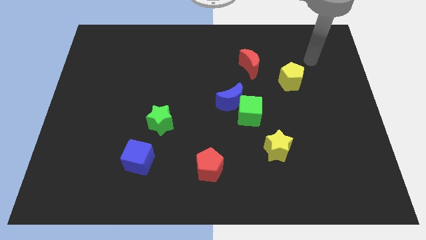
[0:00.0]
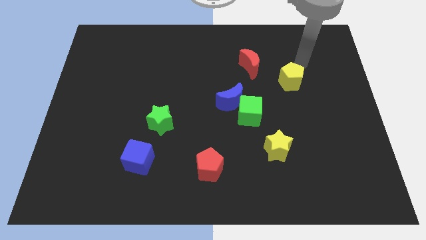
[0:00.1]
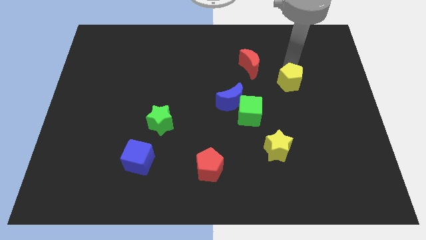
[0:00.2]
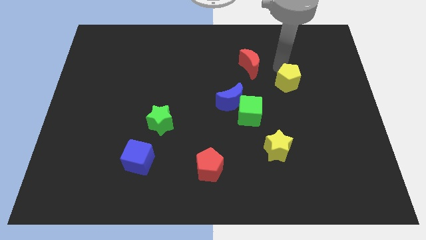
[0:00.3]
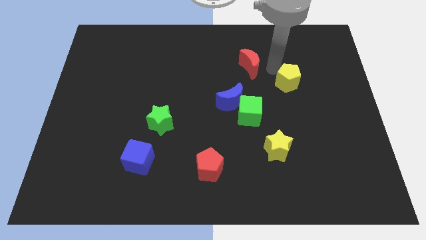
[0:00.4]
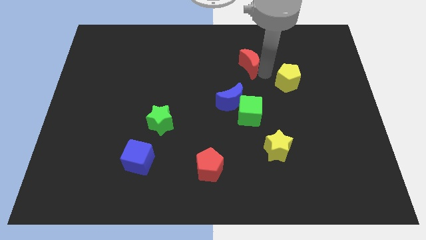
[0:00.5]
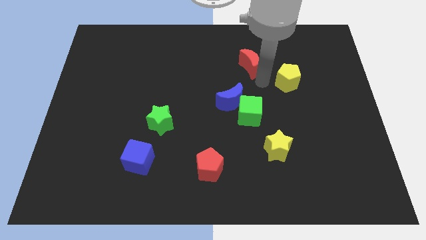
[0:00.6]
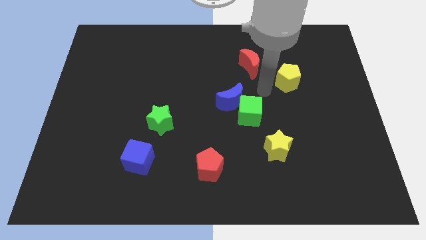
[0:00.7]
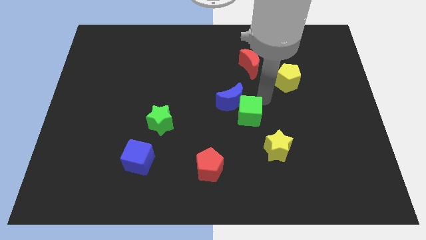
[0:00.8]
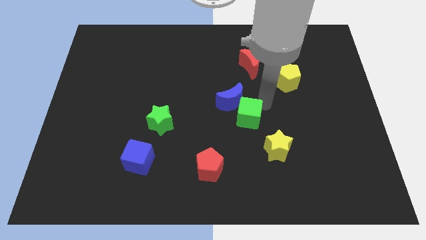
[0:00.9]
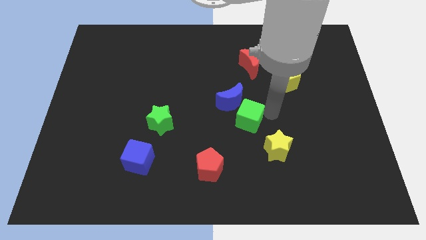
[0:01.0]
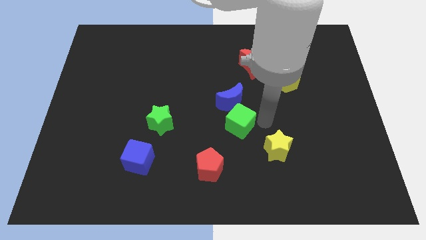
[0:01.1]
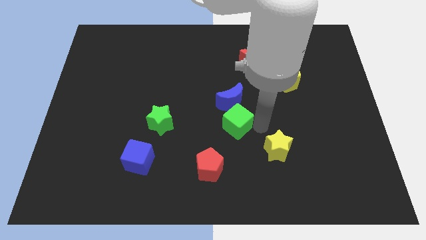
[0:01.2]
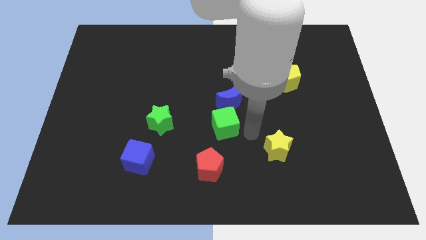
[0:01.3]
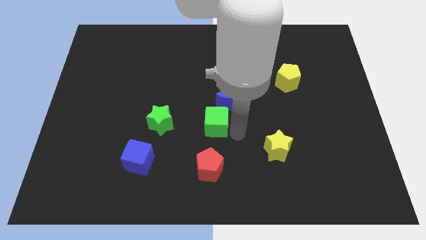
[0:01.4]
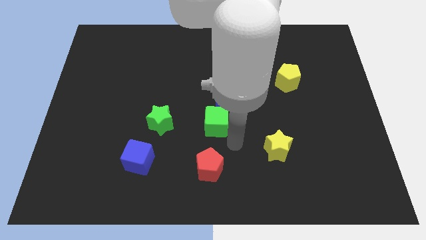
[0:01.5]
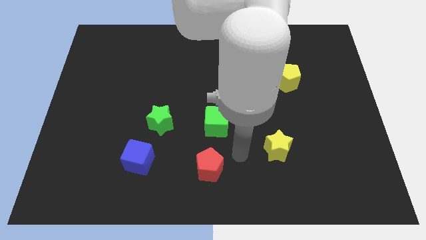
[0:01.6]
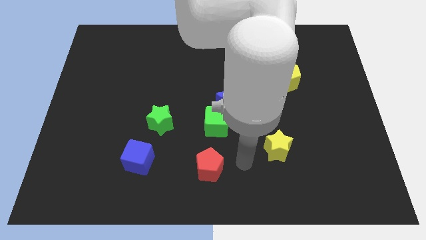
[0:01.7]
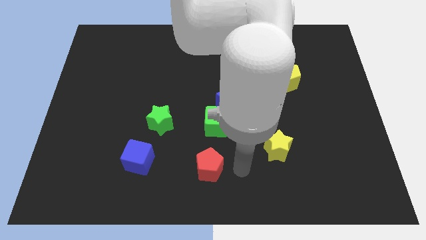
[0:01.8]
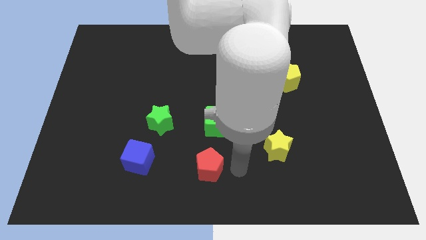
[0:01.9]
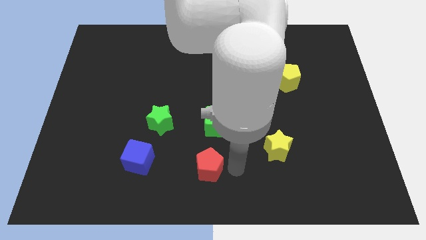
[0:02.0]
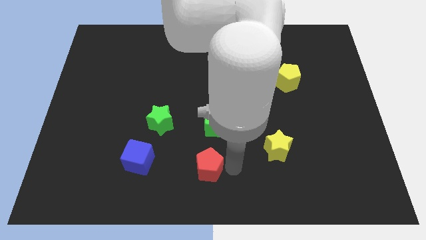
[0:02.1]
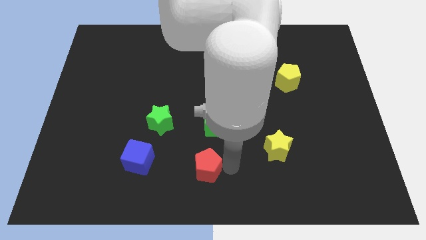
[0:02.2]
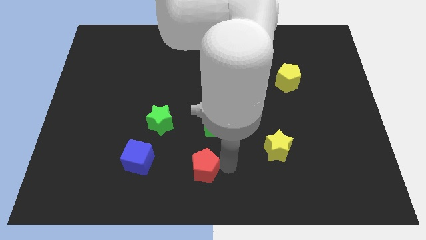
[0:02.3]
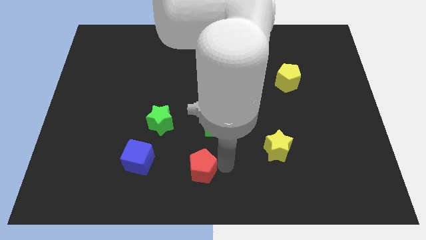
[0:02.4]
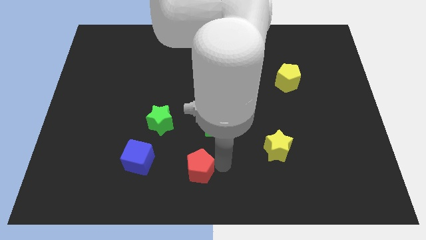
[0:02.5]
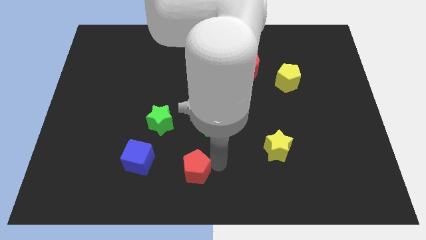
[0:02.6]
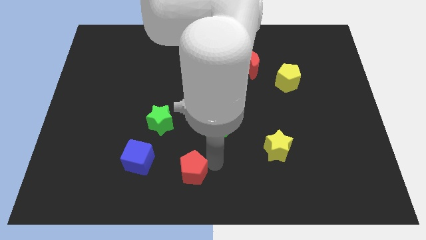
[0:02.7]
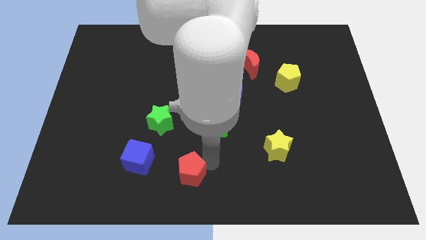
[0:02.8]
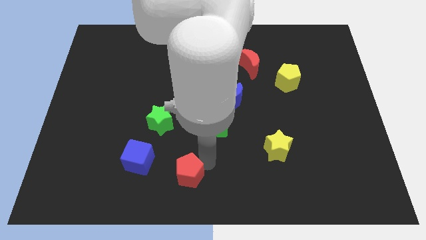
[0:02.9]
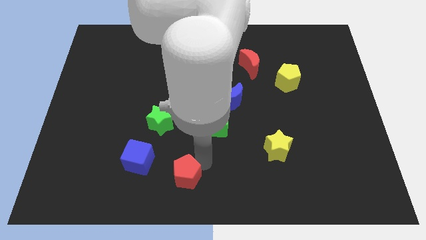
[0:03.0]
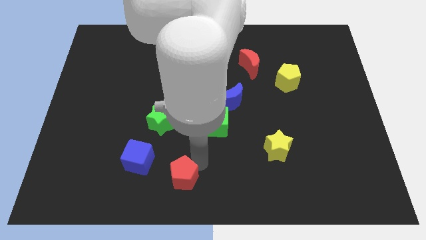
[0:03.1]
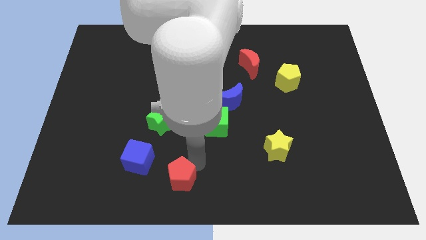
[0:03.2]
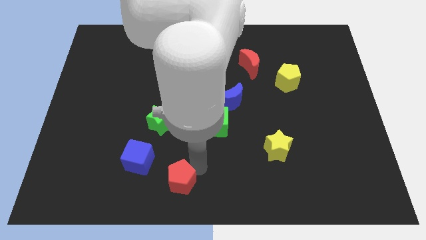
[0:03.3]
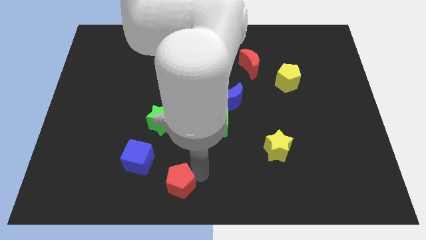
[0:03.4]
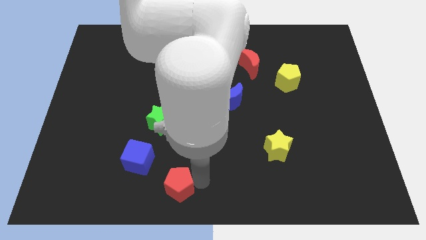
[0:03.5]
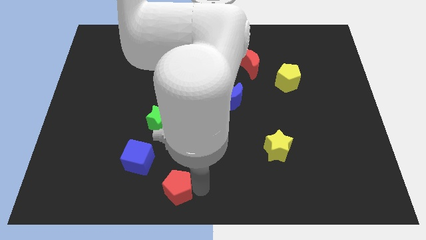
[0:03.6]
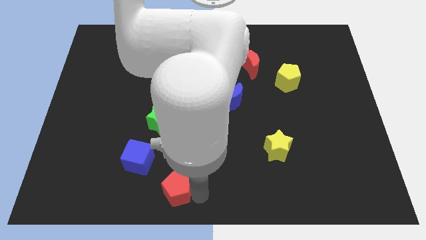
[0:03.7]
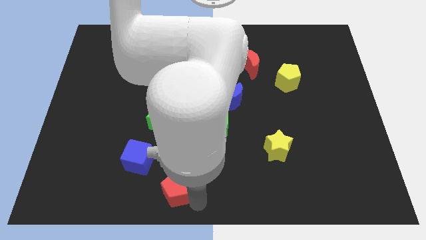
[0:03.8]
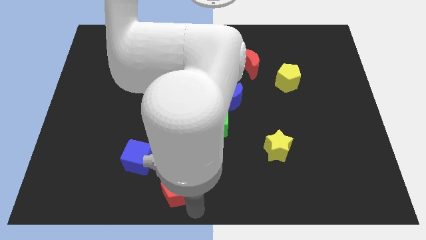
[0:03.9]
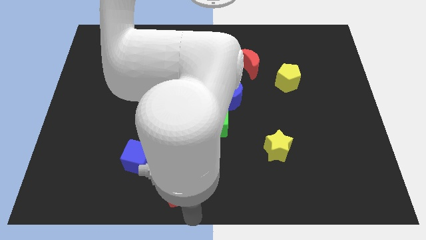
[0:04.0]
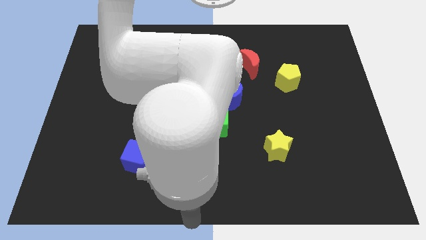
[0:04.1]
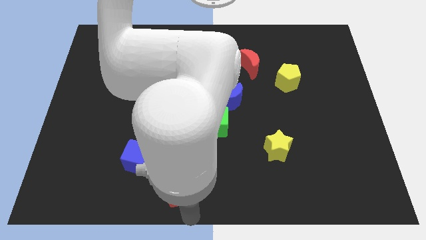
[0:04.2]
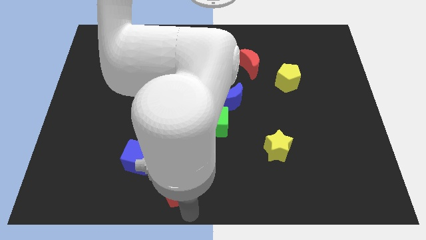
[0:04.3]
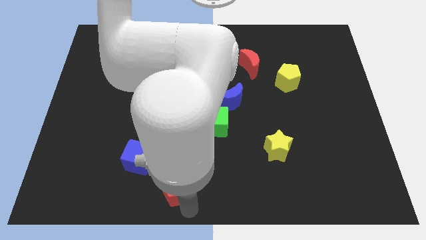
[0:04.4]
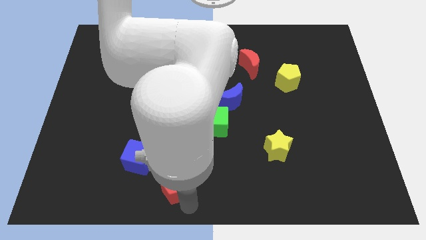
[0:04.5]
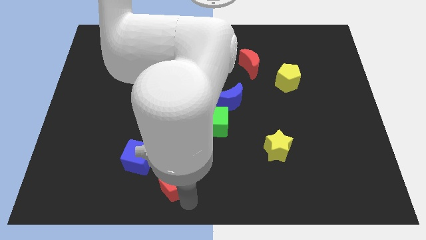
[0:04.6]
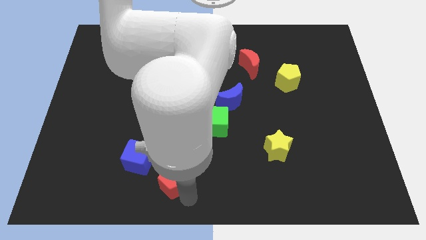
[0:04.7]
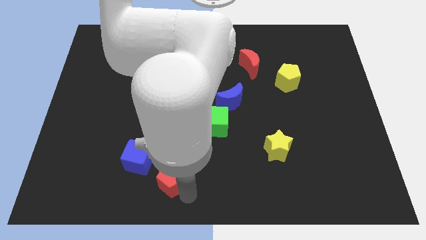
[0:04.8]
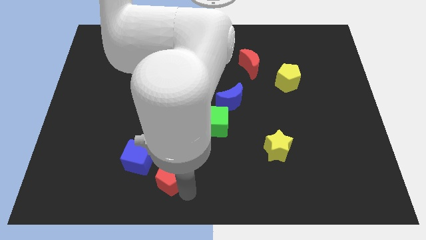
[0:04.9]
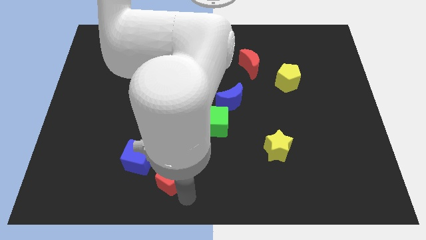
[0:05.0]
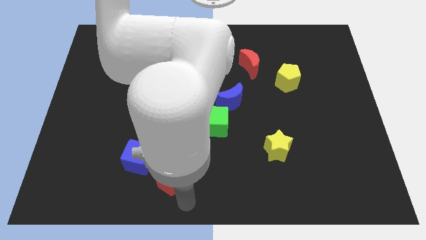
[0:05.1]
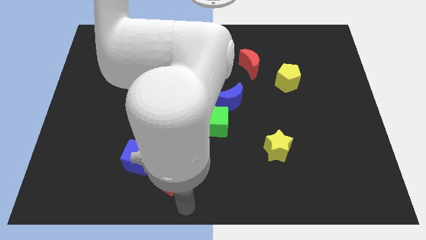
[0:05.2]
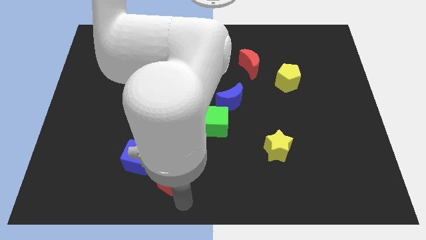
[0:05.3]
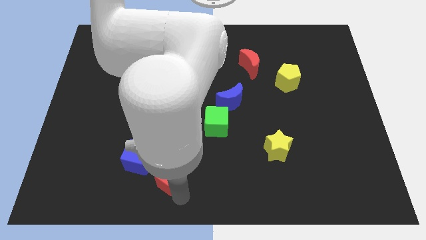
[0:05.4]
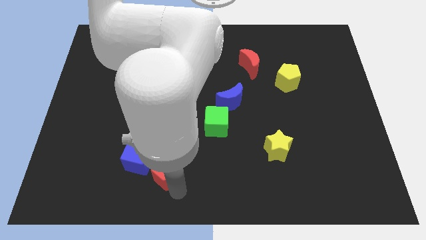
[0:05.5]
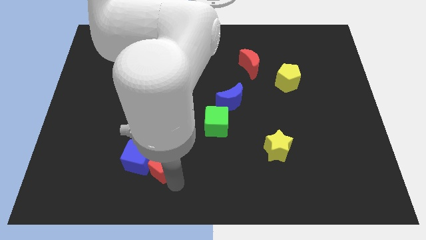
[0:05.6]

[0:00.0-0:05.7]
move the red pentagon towards the blue cube

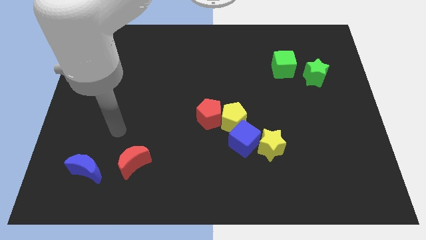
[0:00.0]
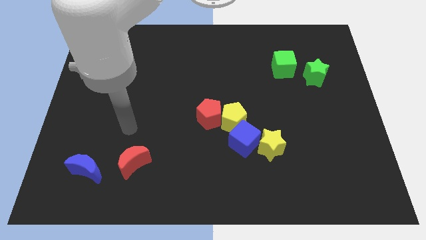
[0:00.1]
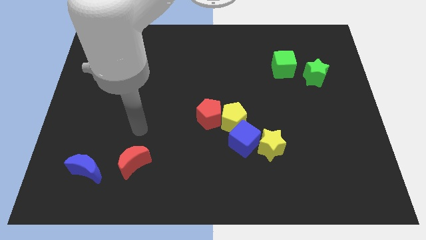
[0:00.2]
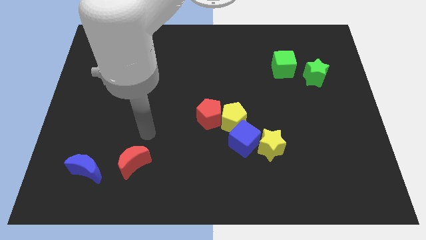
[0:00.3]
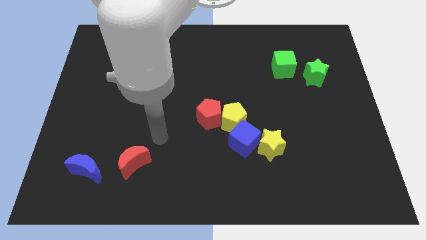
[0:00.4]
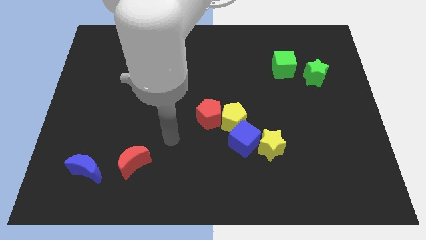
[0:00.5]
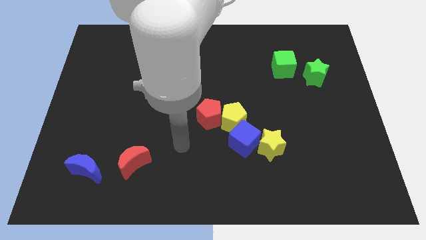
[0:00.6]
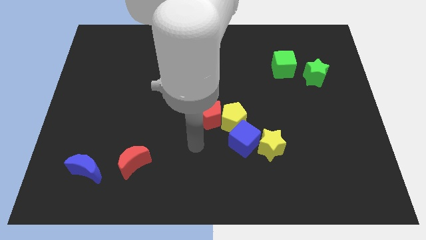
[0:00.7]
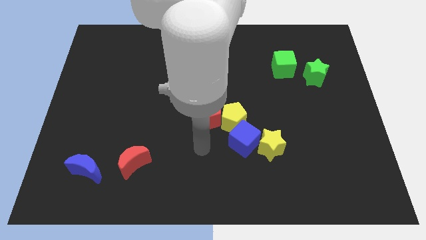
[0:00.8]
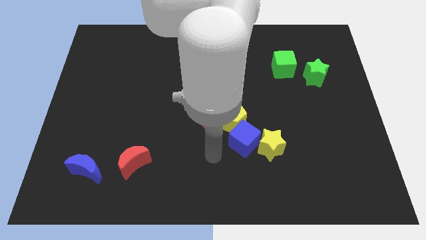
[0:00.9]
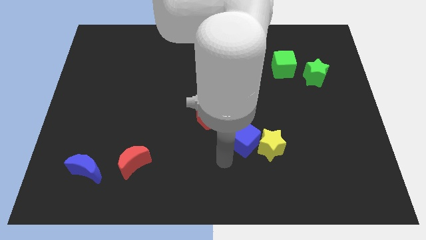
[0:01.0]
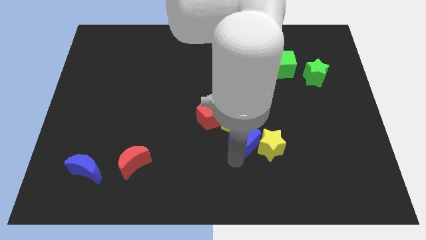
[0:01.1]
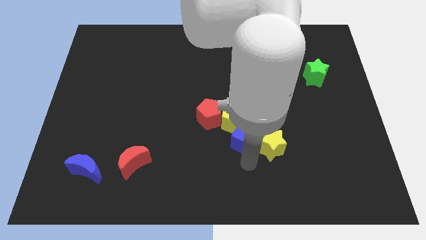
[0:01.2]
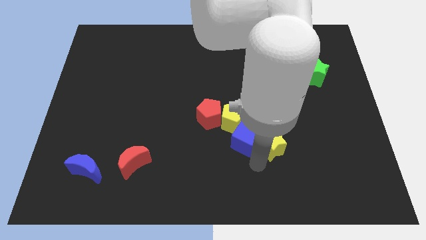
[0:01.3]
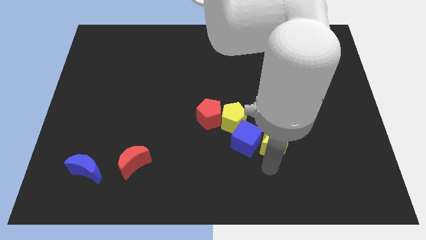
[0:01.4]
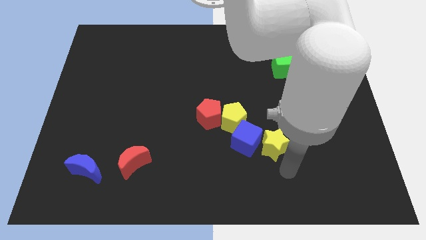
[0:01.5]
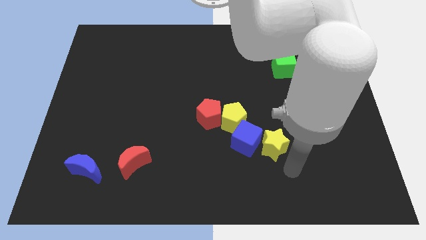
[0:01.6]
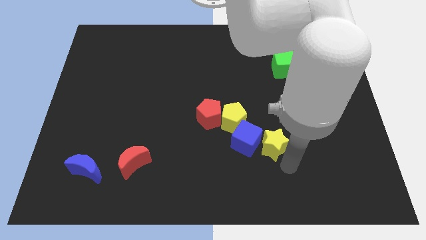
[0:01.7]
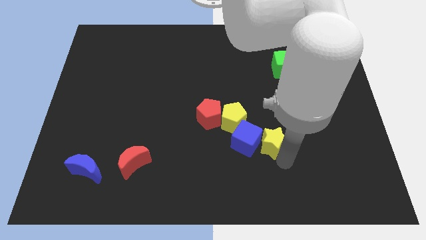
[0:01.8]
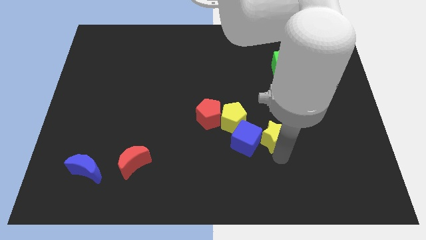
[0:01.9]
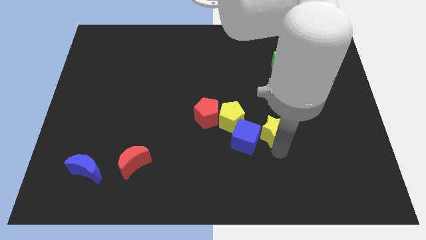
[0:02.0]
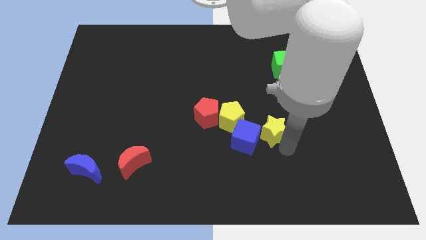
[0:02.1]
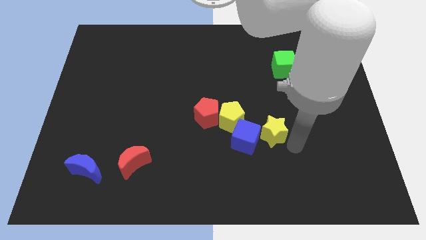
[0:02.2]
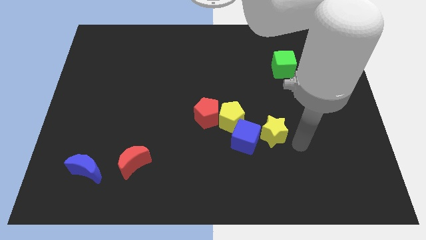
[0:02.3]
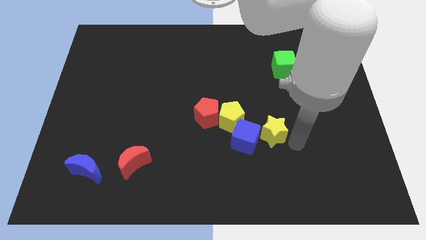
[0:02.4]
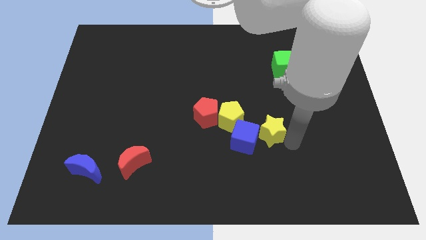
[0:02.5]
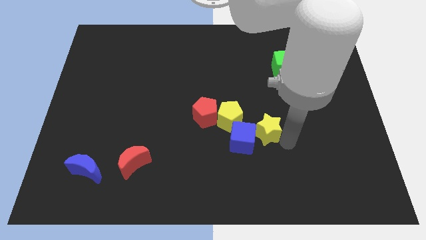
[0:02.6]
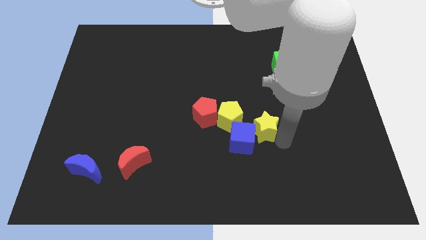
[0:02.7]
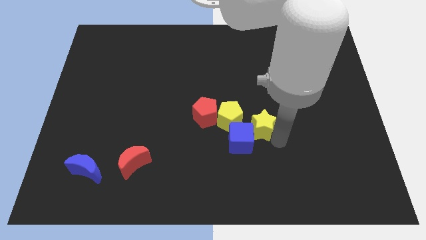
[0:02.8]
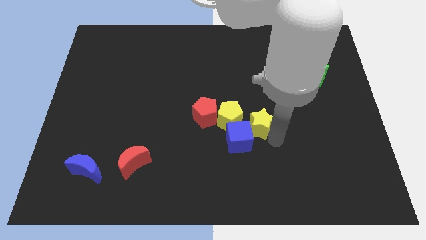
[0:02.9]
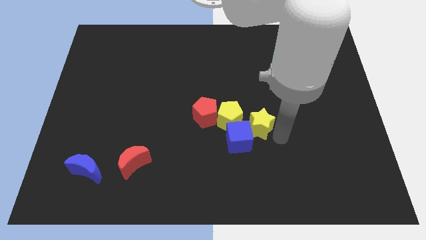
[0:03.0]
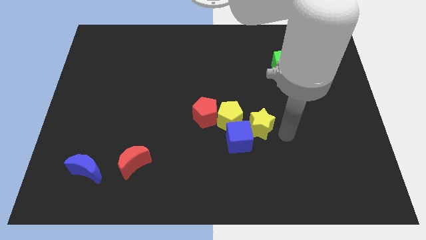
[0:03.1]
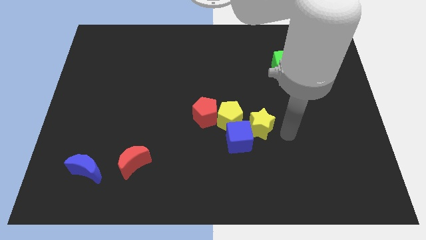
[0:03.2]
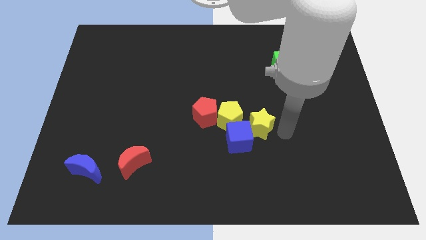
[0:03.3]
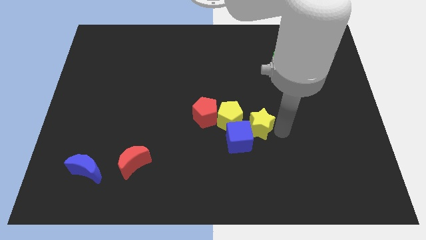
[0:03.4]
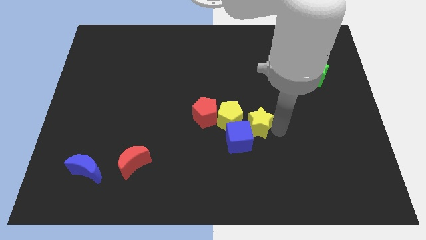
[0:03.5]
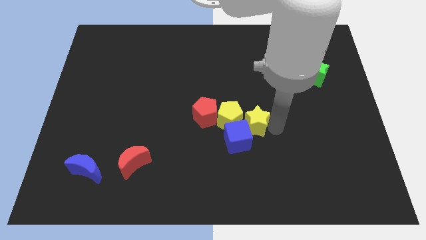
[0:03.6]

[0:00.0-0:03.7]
put the yellow star next to the yellow pentagon
